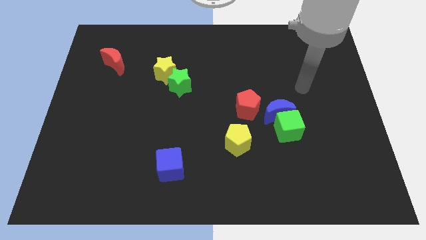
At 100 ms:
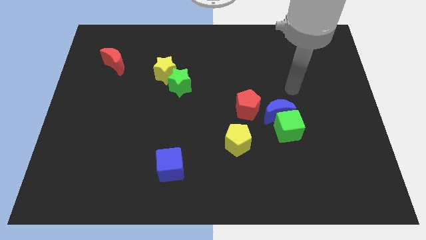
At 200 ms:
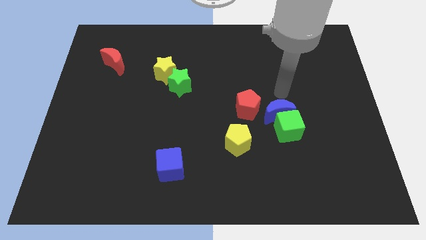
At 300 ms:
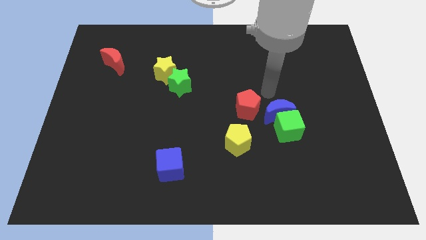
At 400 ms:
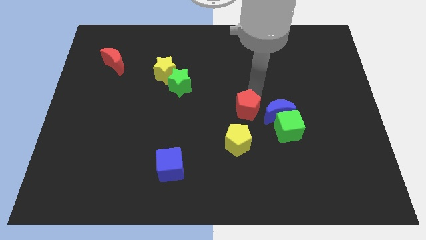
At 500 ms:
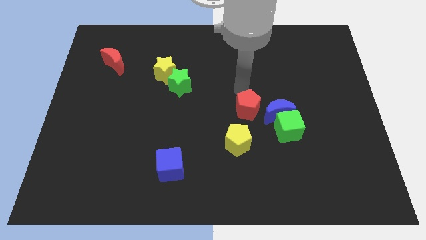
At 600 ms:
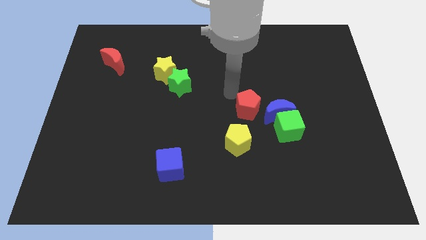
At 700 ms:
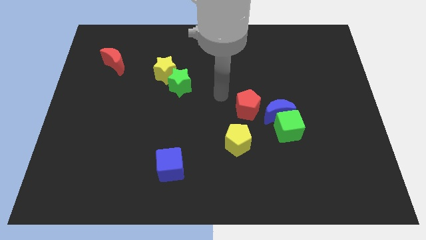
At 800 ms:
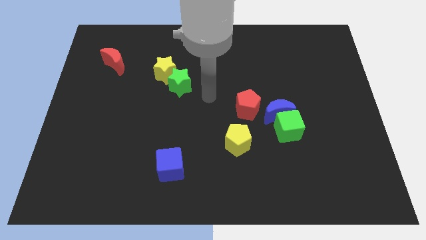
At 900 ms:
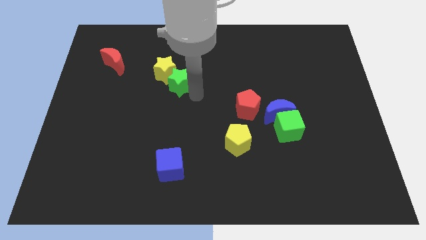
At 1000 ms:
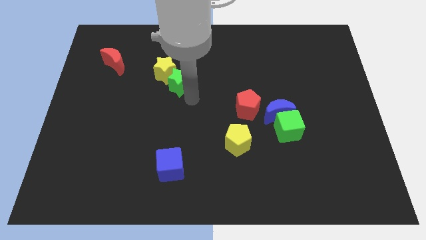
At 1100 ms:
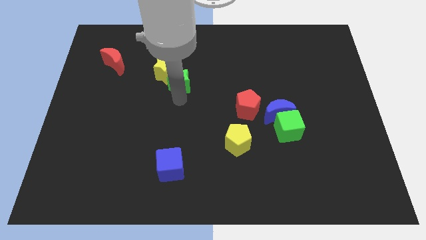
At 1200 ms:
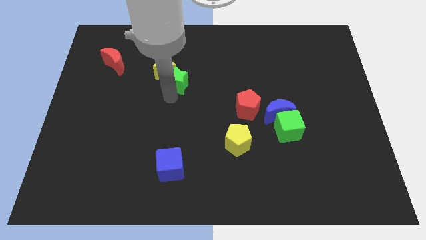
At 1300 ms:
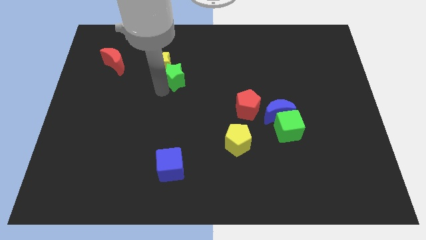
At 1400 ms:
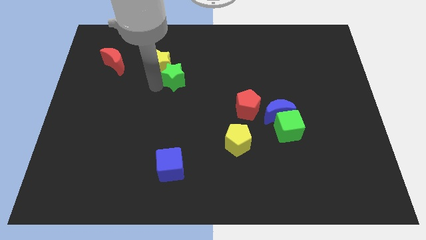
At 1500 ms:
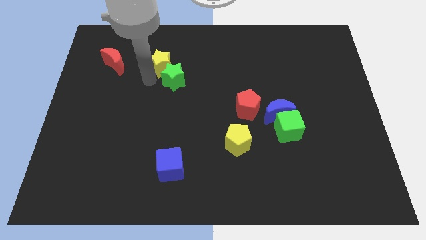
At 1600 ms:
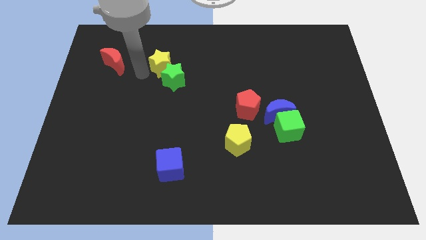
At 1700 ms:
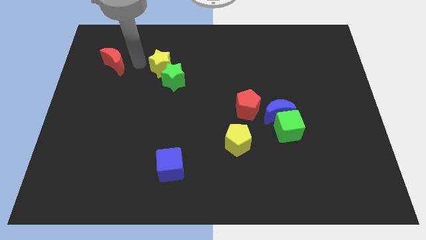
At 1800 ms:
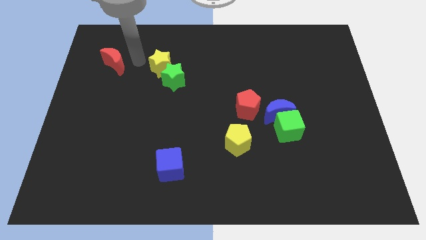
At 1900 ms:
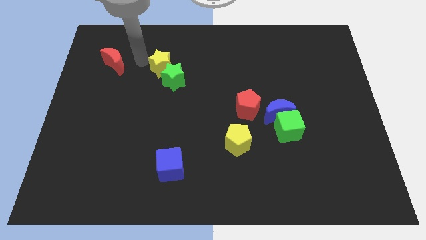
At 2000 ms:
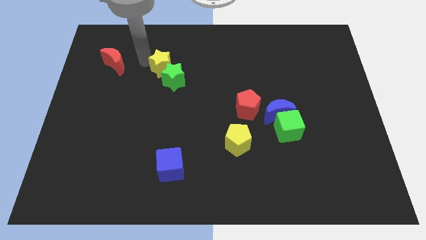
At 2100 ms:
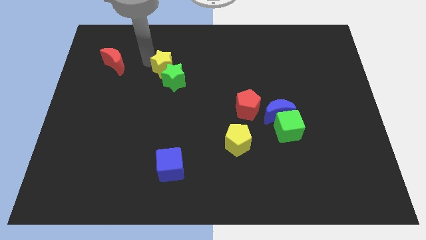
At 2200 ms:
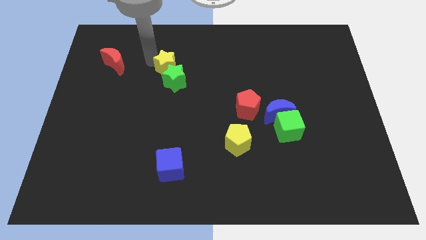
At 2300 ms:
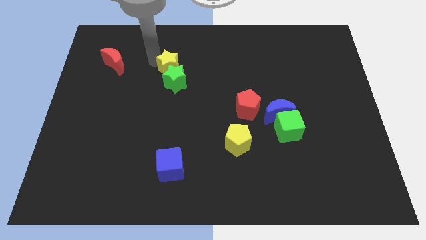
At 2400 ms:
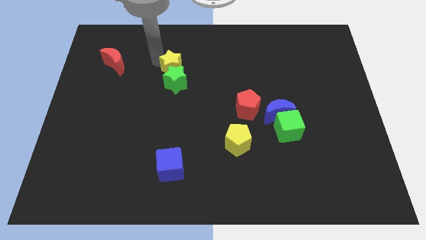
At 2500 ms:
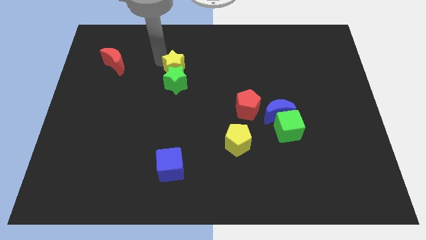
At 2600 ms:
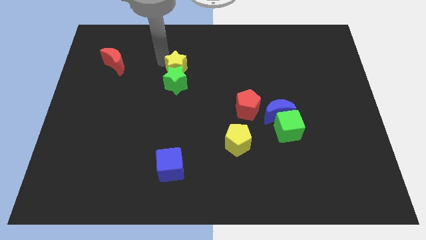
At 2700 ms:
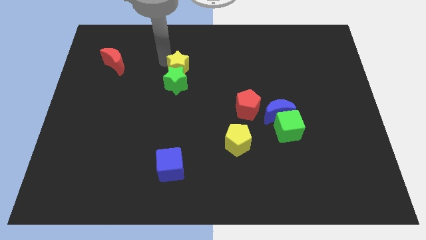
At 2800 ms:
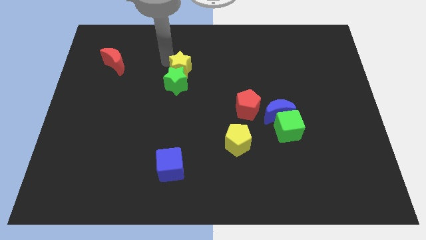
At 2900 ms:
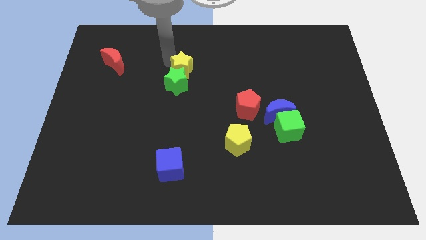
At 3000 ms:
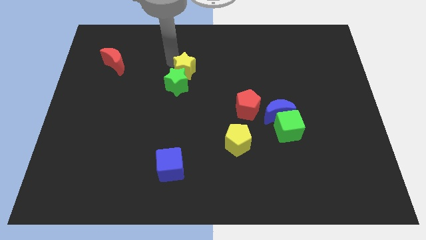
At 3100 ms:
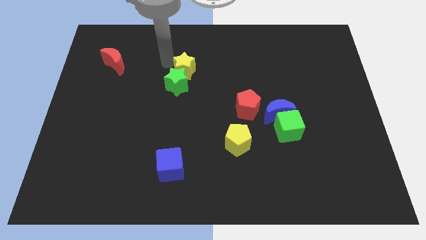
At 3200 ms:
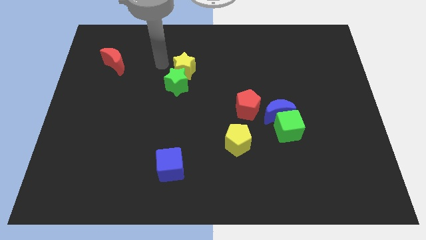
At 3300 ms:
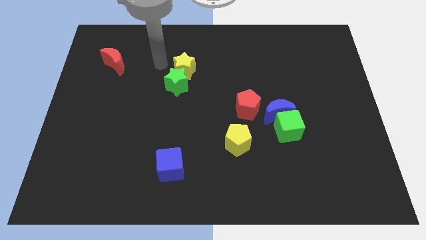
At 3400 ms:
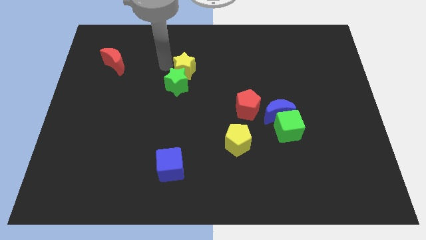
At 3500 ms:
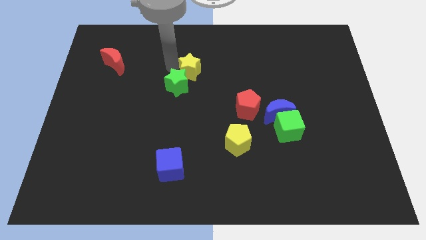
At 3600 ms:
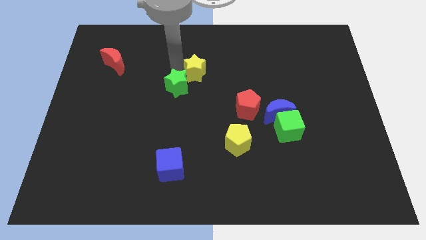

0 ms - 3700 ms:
move the yellow star a little bit to the right

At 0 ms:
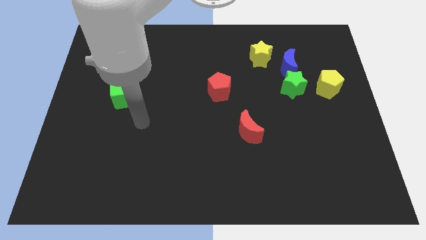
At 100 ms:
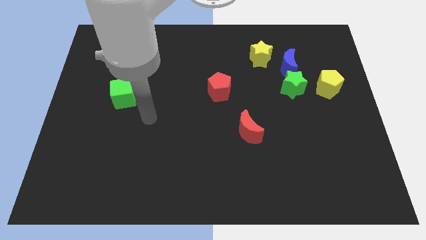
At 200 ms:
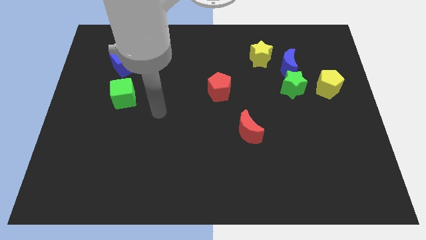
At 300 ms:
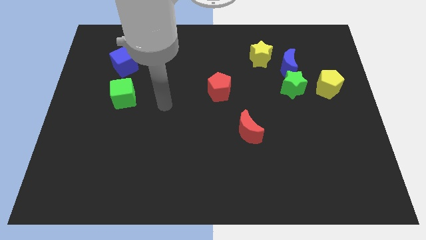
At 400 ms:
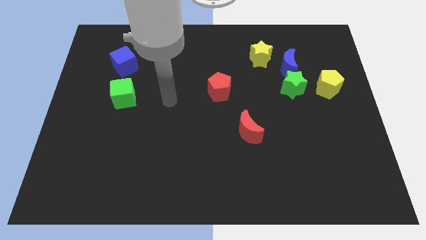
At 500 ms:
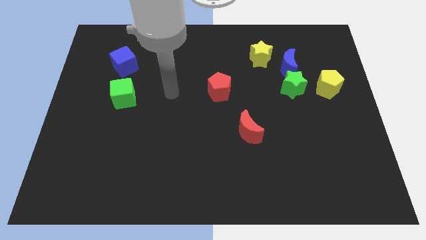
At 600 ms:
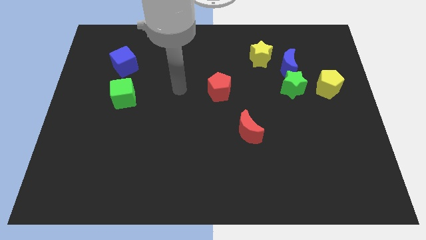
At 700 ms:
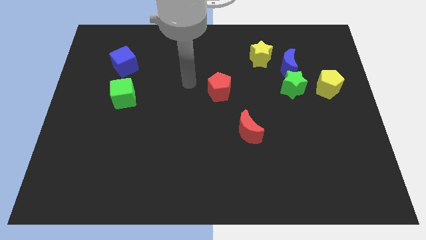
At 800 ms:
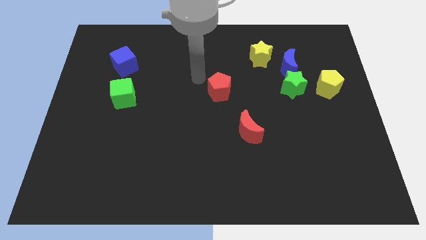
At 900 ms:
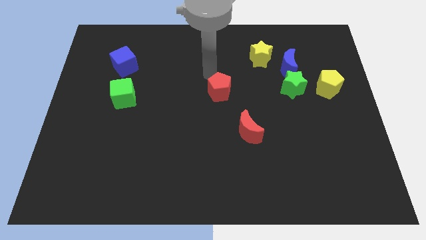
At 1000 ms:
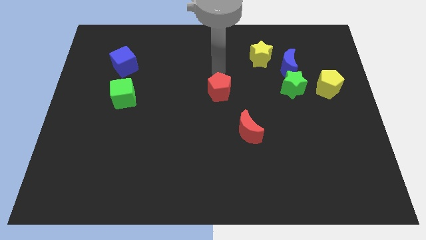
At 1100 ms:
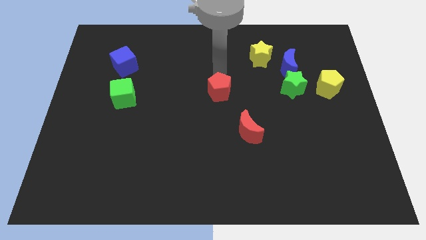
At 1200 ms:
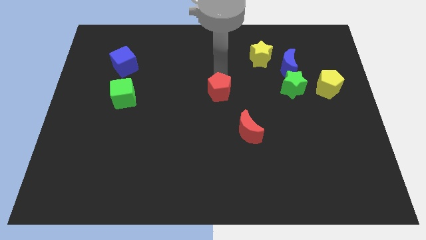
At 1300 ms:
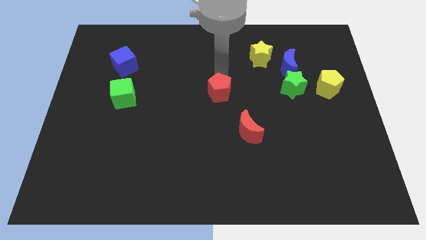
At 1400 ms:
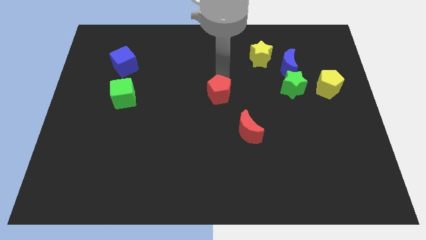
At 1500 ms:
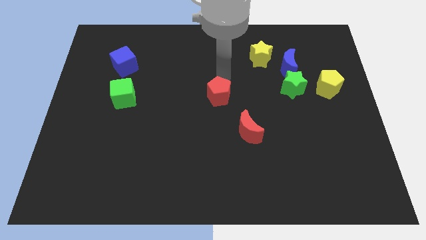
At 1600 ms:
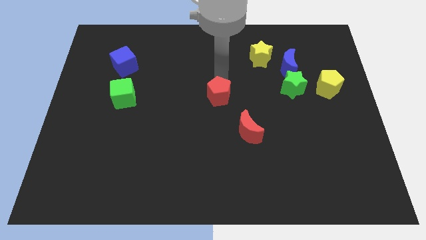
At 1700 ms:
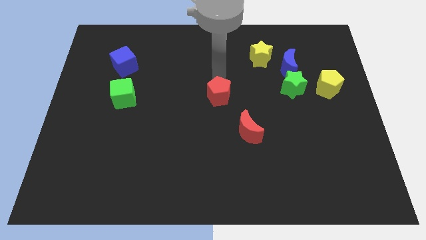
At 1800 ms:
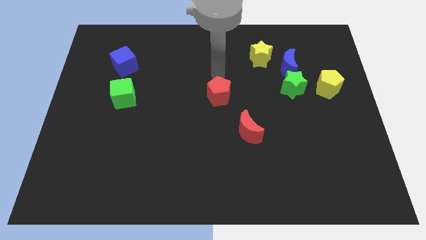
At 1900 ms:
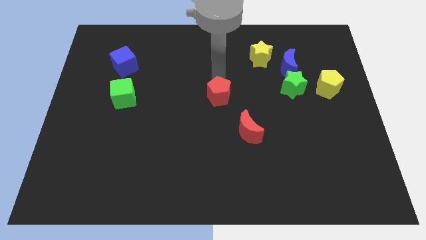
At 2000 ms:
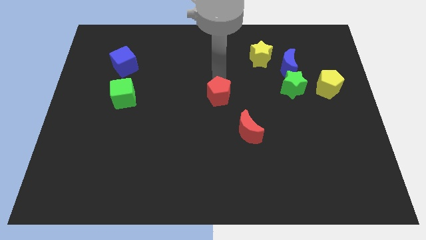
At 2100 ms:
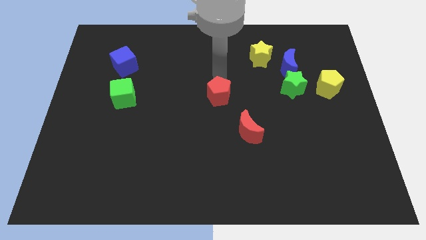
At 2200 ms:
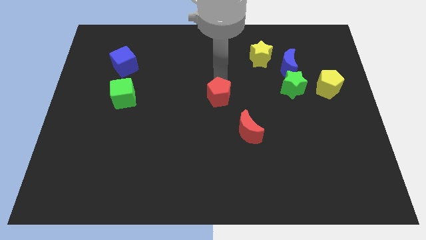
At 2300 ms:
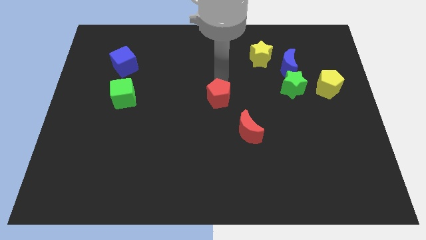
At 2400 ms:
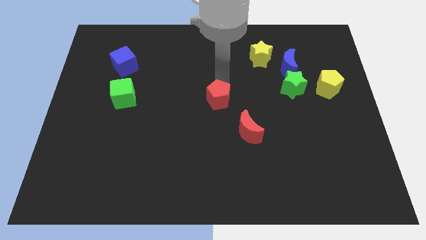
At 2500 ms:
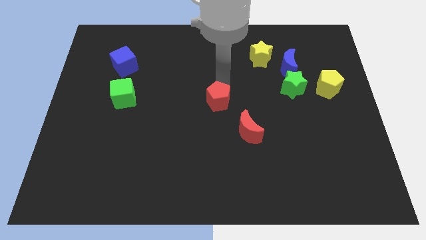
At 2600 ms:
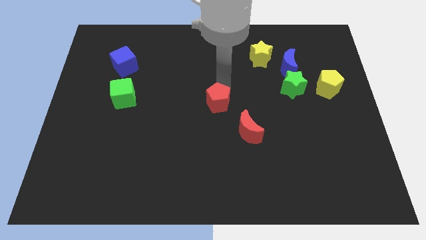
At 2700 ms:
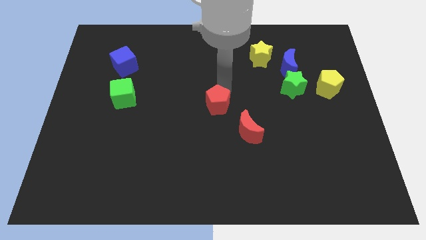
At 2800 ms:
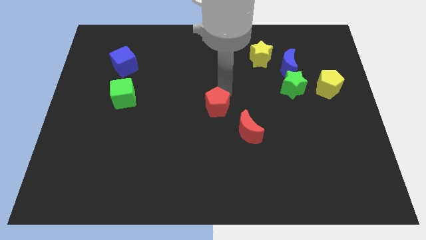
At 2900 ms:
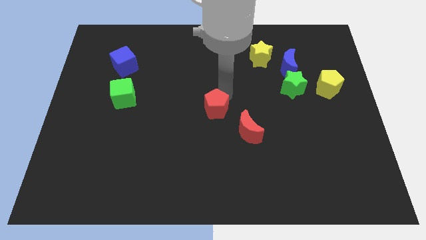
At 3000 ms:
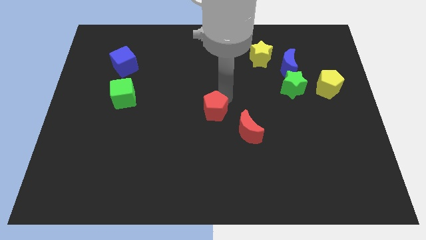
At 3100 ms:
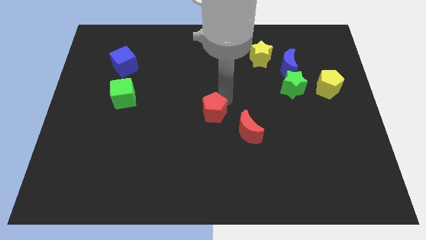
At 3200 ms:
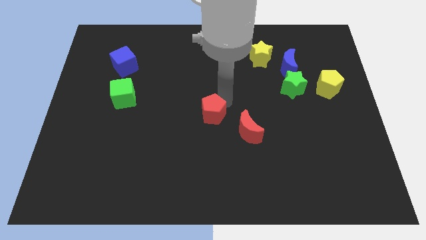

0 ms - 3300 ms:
slide the red pentagon down a little

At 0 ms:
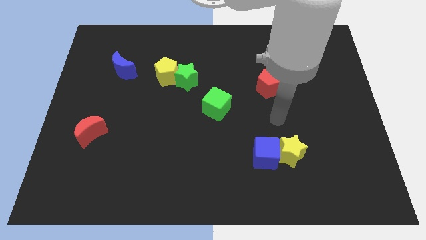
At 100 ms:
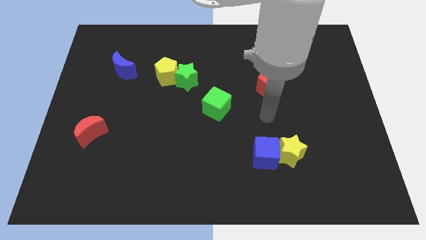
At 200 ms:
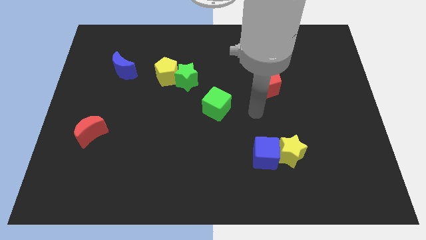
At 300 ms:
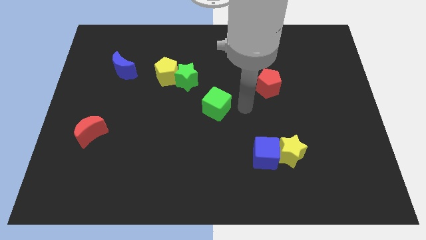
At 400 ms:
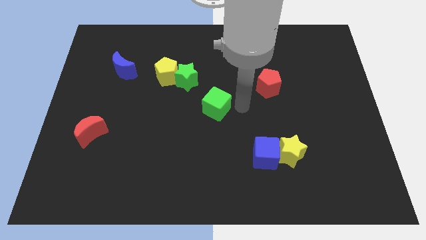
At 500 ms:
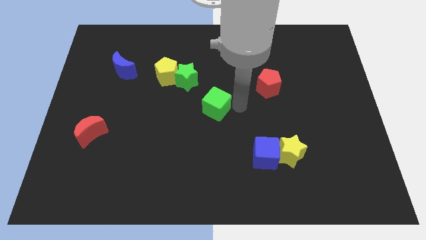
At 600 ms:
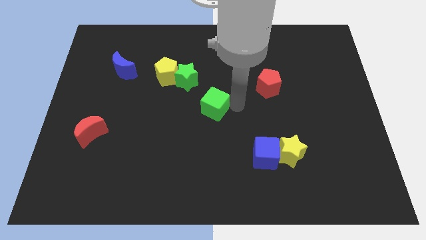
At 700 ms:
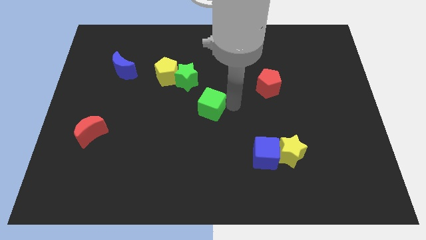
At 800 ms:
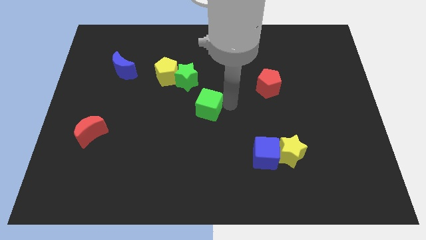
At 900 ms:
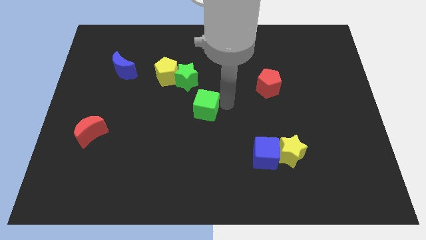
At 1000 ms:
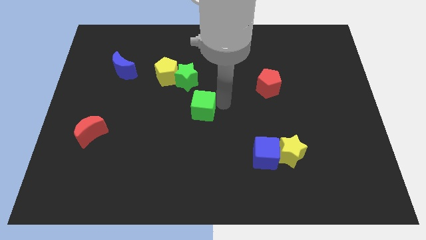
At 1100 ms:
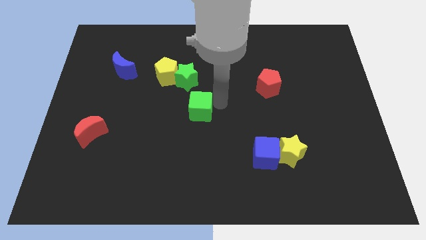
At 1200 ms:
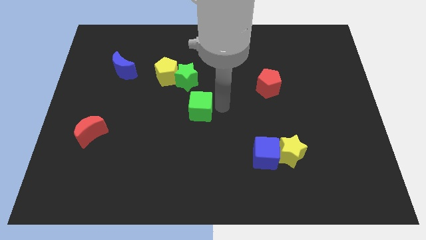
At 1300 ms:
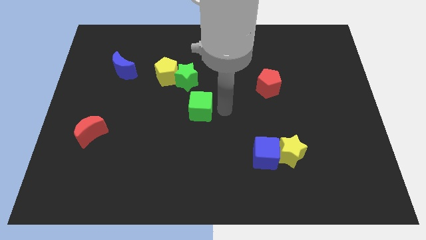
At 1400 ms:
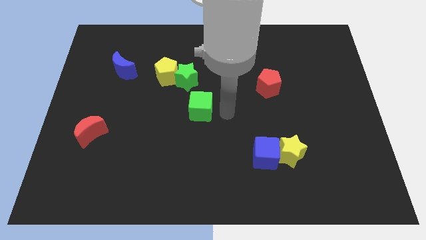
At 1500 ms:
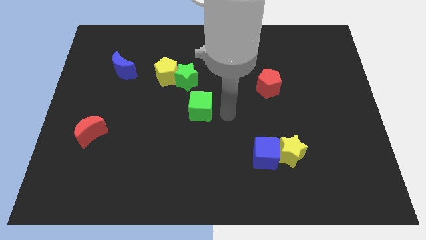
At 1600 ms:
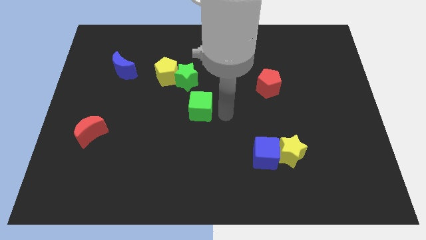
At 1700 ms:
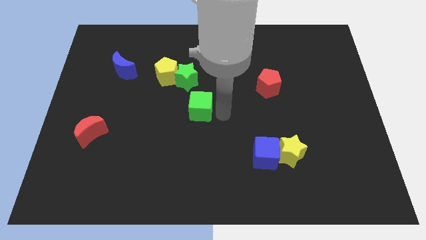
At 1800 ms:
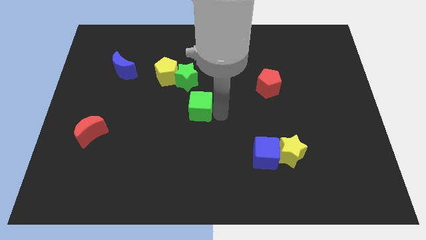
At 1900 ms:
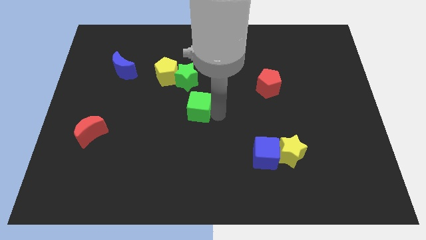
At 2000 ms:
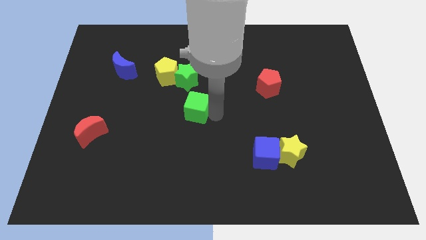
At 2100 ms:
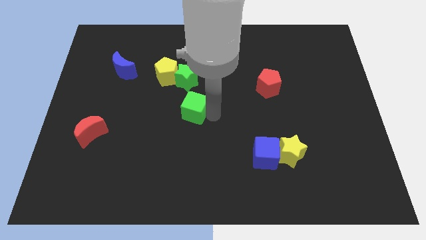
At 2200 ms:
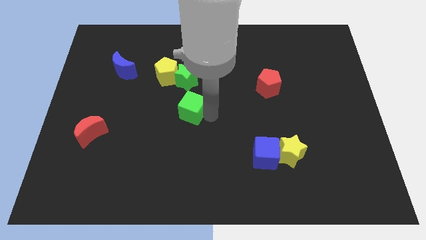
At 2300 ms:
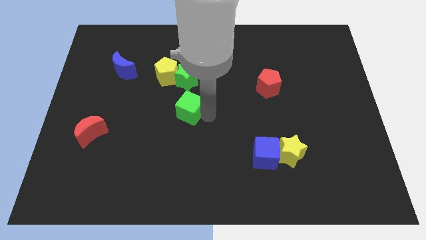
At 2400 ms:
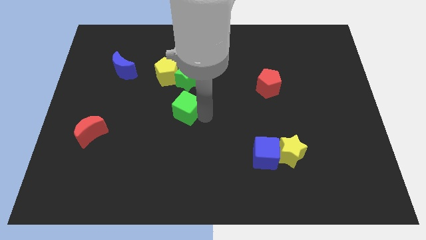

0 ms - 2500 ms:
slide the green cube somewhat to the left
